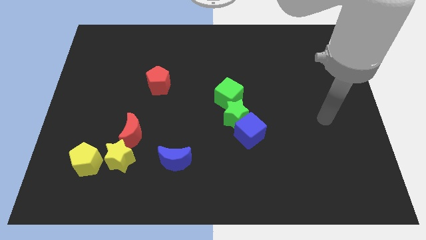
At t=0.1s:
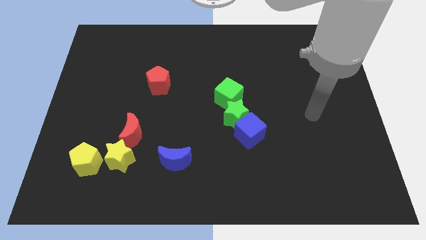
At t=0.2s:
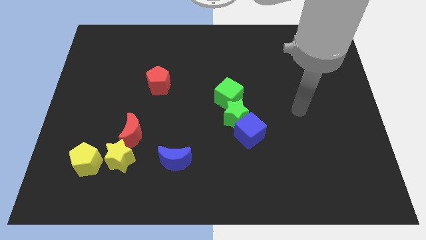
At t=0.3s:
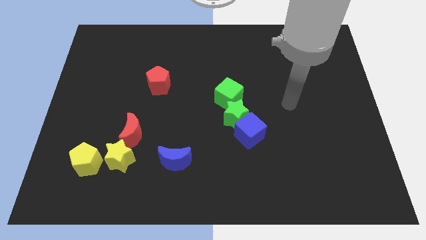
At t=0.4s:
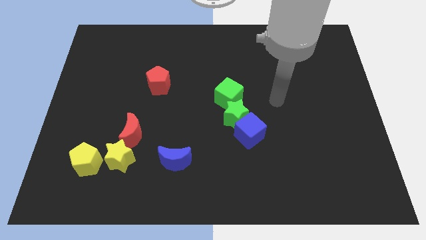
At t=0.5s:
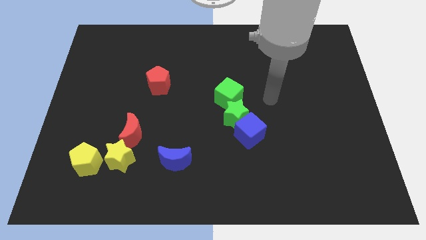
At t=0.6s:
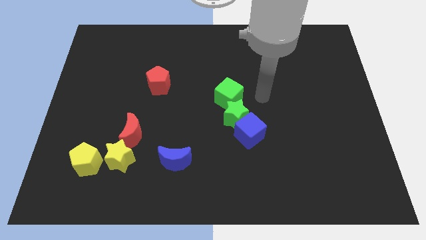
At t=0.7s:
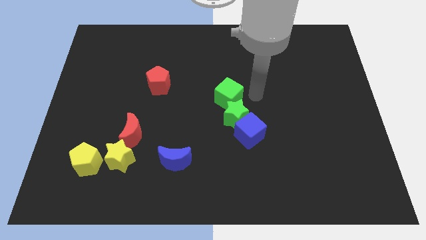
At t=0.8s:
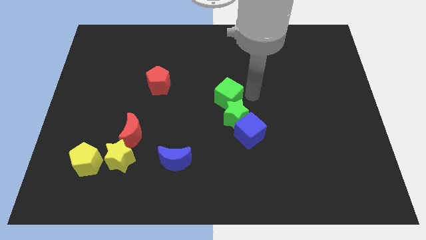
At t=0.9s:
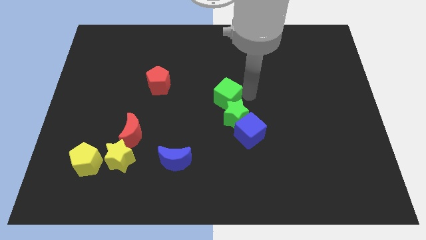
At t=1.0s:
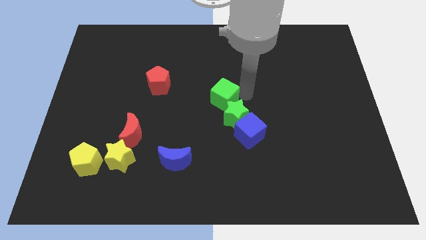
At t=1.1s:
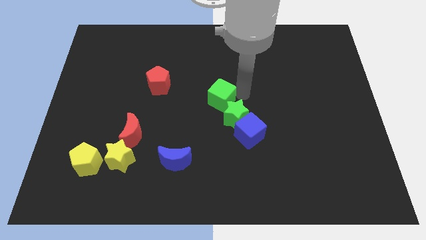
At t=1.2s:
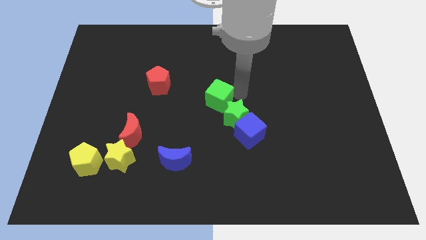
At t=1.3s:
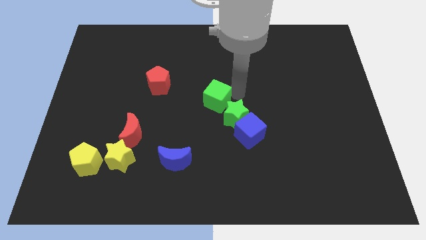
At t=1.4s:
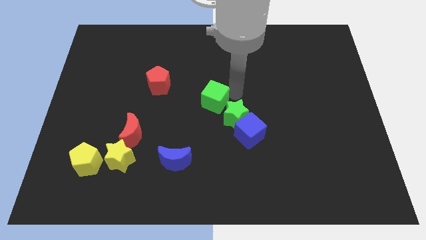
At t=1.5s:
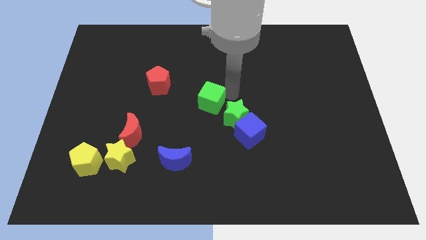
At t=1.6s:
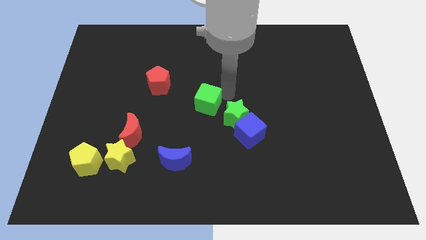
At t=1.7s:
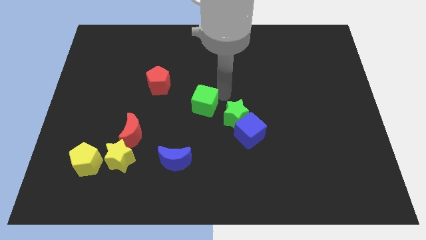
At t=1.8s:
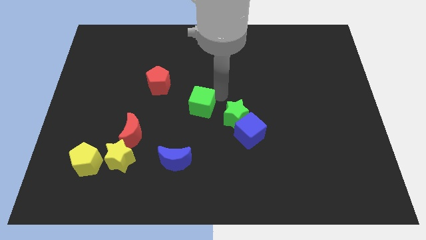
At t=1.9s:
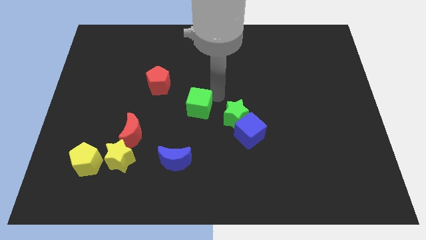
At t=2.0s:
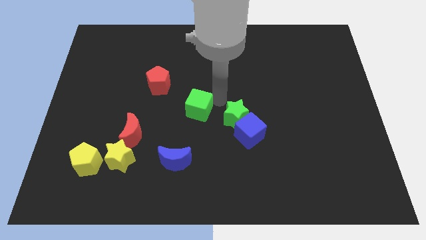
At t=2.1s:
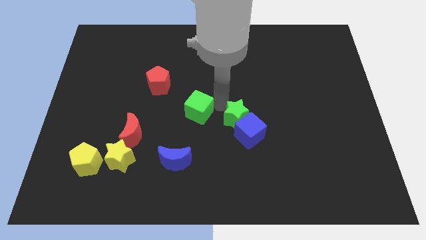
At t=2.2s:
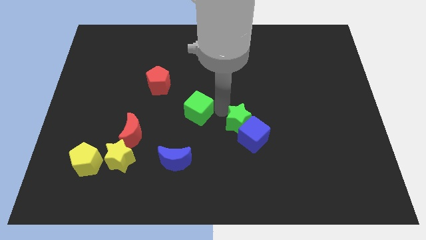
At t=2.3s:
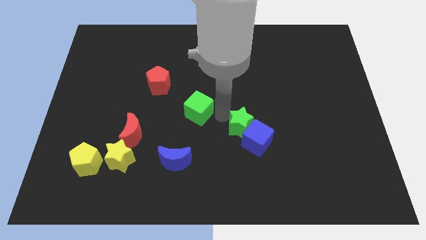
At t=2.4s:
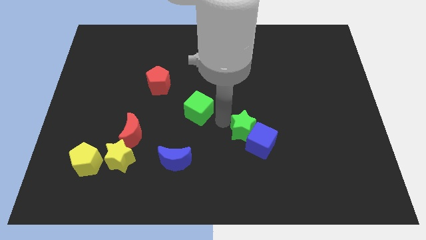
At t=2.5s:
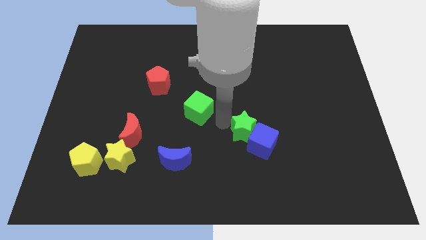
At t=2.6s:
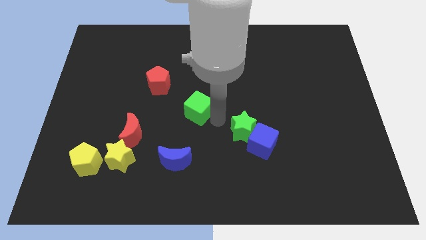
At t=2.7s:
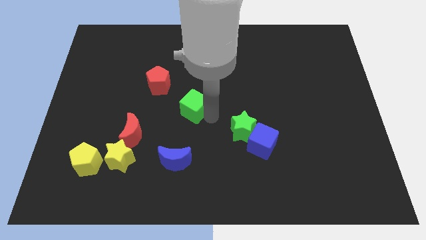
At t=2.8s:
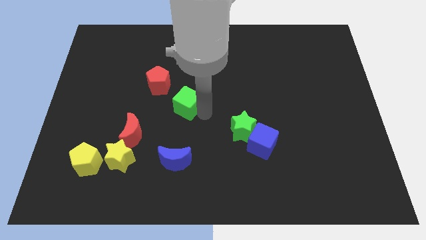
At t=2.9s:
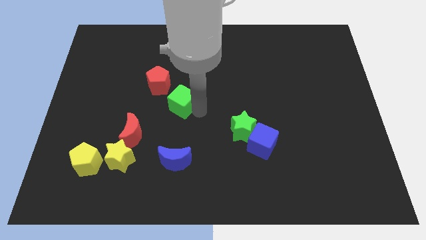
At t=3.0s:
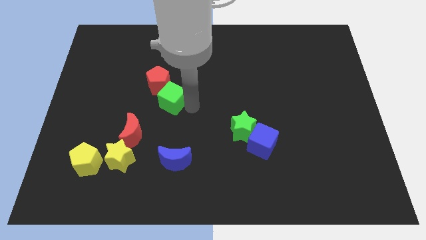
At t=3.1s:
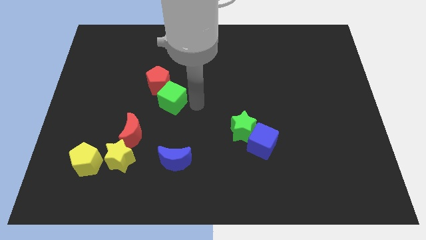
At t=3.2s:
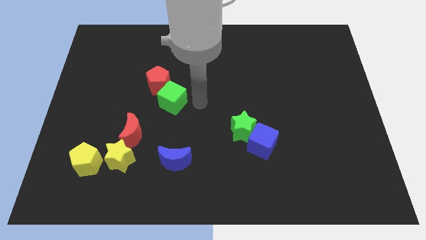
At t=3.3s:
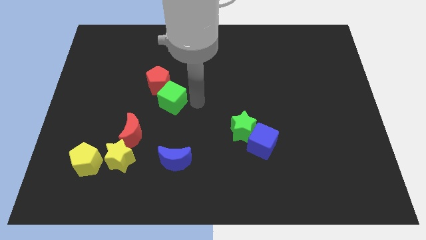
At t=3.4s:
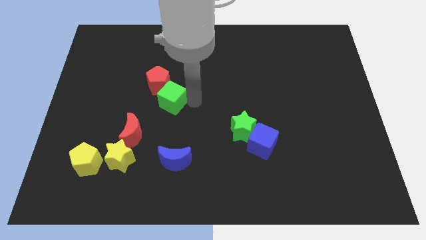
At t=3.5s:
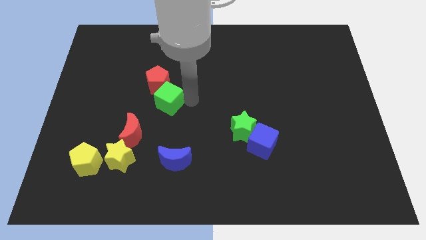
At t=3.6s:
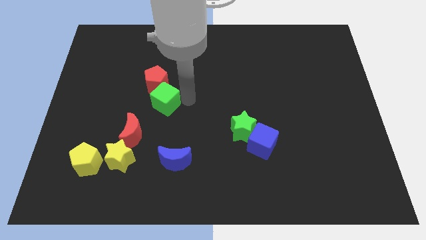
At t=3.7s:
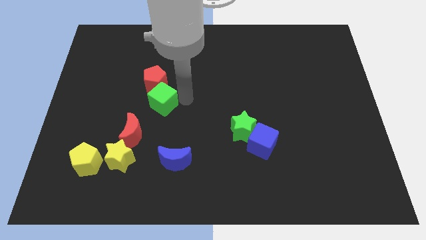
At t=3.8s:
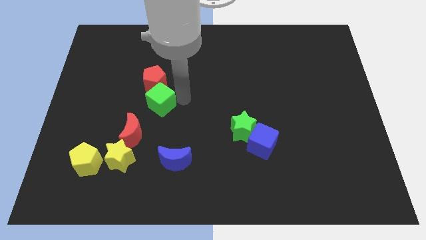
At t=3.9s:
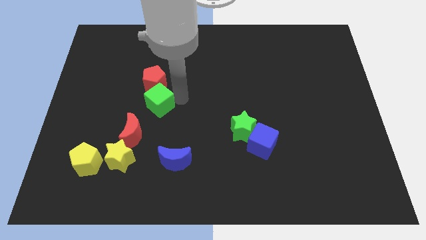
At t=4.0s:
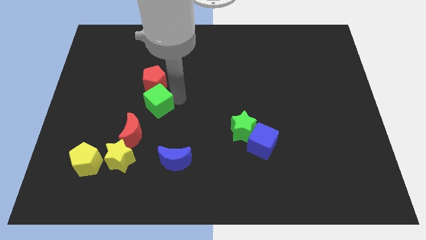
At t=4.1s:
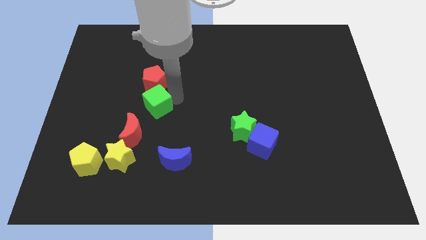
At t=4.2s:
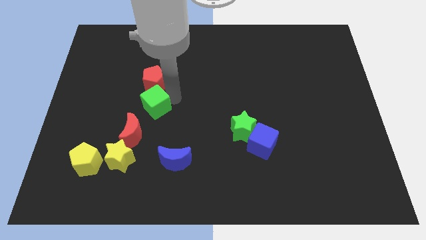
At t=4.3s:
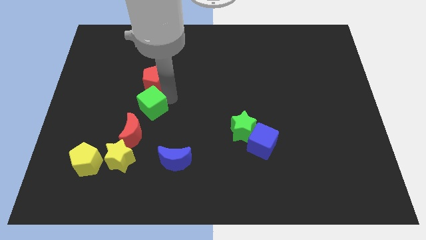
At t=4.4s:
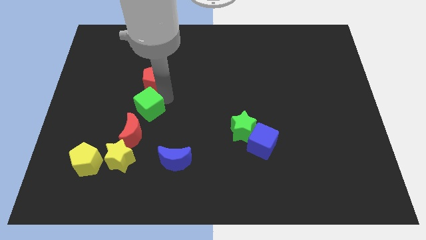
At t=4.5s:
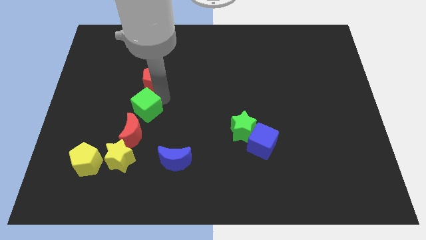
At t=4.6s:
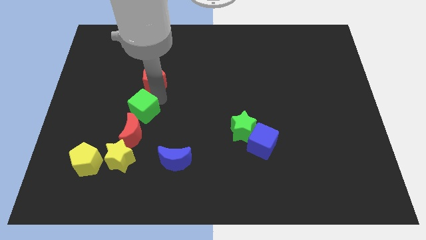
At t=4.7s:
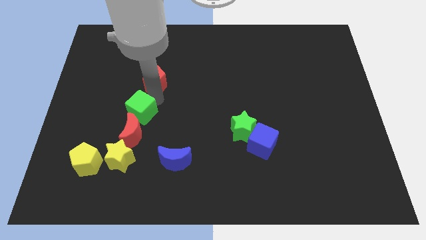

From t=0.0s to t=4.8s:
move the green cube to the left

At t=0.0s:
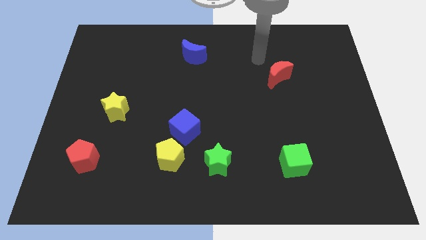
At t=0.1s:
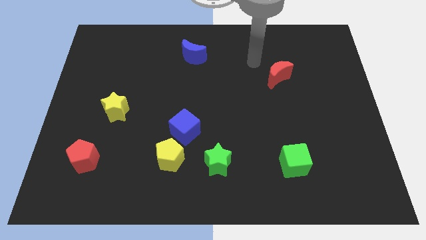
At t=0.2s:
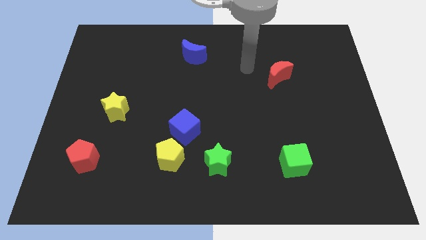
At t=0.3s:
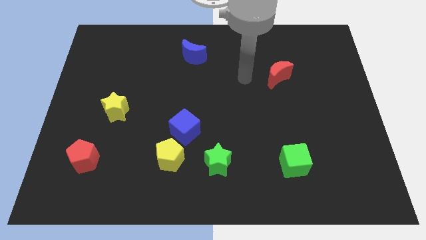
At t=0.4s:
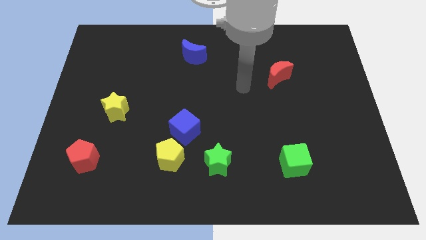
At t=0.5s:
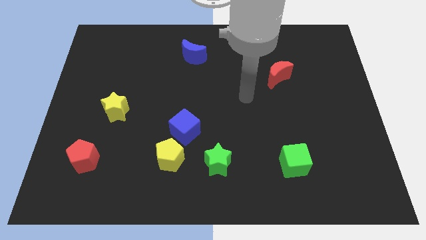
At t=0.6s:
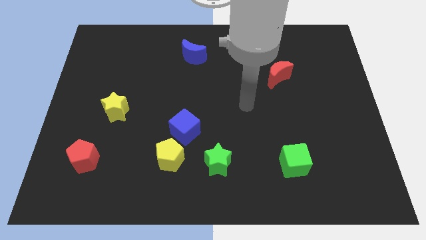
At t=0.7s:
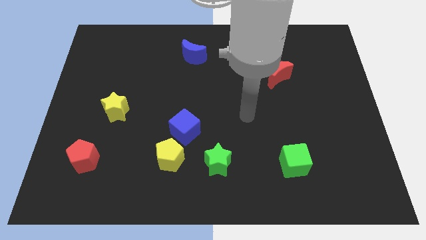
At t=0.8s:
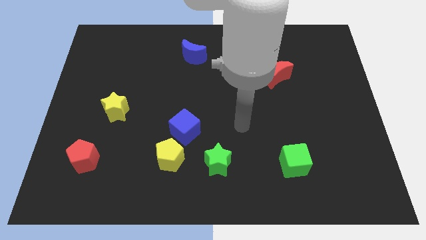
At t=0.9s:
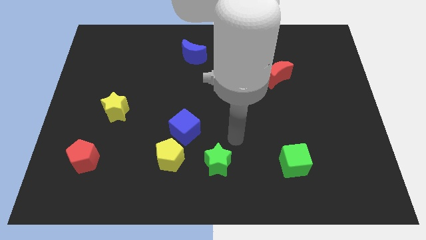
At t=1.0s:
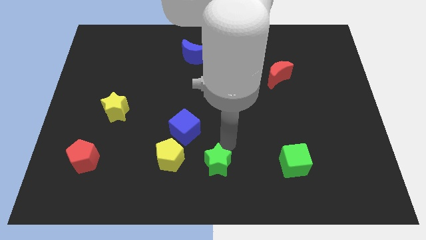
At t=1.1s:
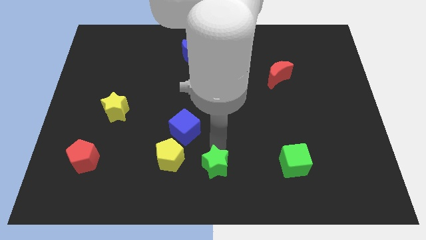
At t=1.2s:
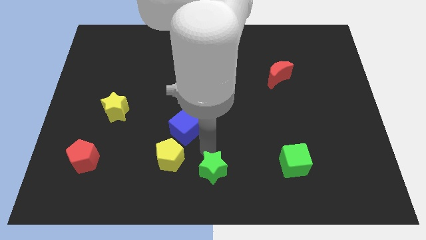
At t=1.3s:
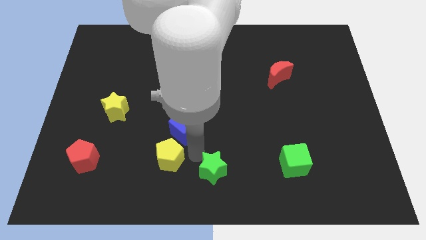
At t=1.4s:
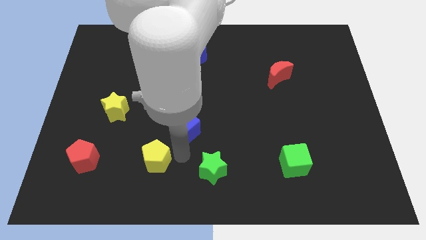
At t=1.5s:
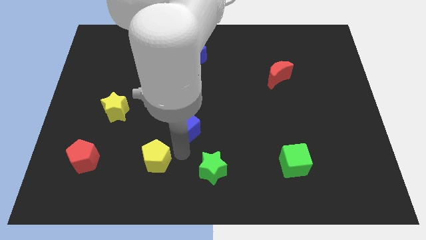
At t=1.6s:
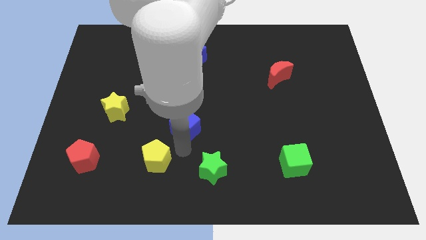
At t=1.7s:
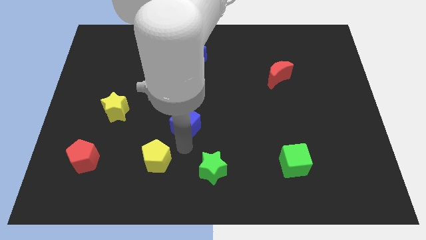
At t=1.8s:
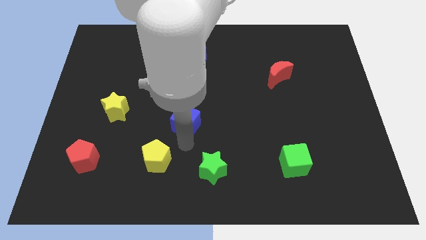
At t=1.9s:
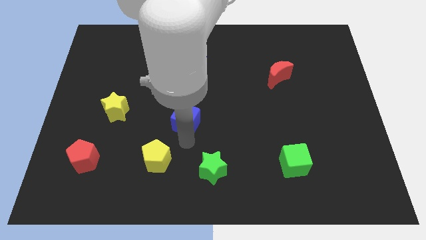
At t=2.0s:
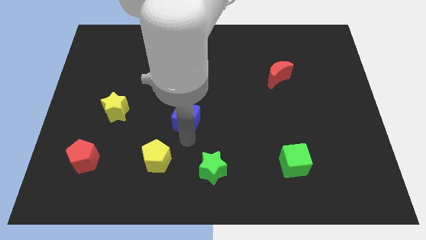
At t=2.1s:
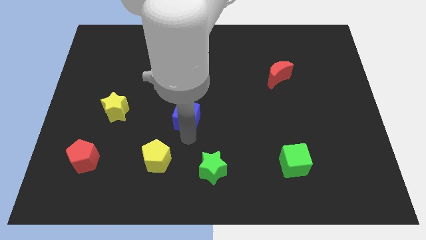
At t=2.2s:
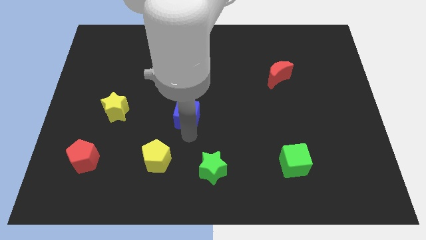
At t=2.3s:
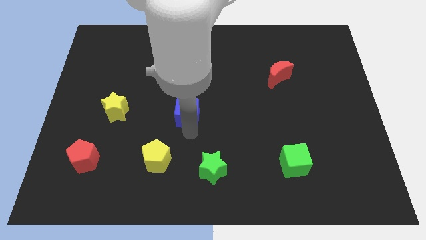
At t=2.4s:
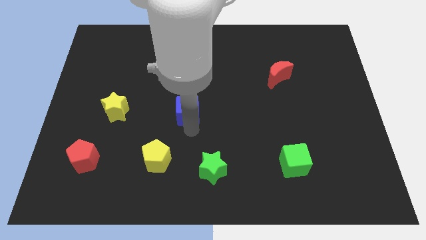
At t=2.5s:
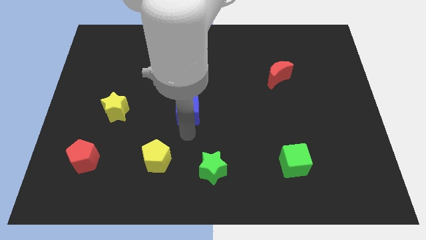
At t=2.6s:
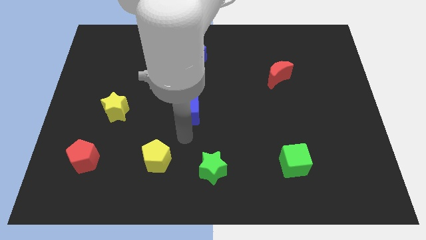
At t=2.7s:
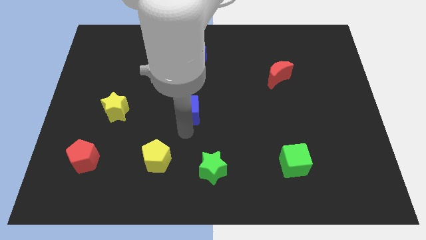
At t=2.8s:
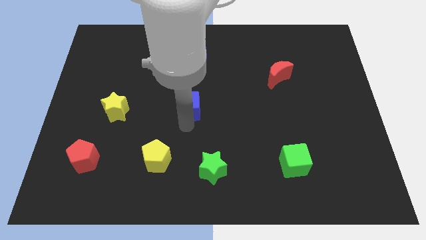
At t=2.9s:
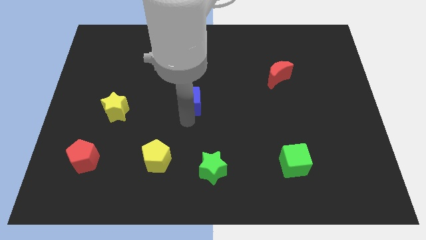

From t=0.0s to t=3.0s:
push the blue cube a little upwards

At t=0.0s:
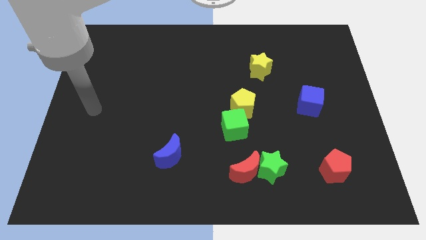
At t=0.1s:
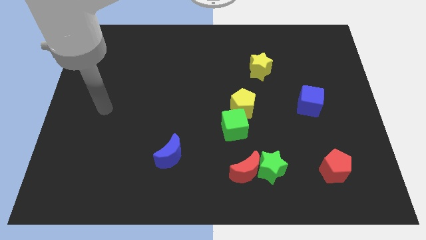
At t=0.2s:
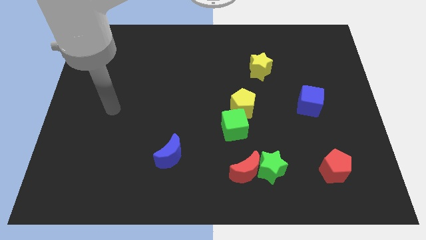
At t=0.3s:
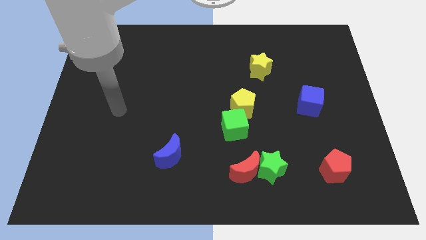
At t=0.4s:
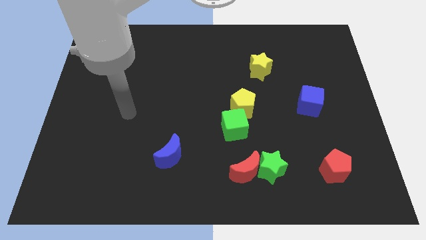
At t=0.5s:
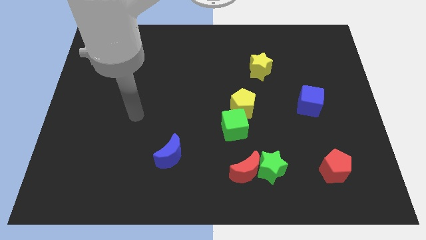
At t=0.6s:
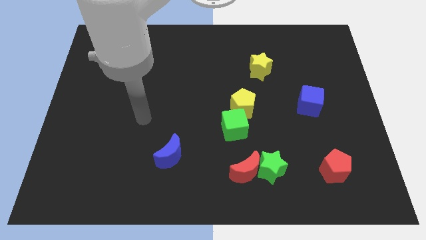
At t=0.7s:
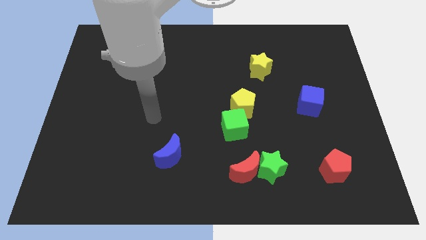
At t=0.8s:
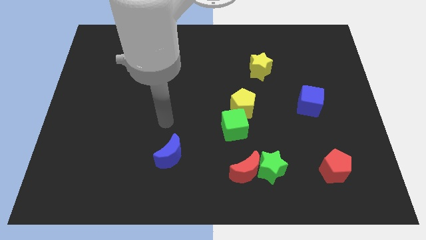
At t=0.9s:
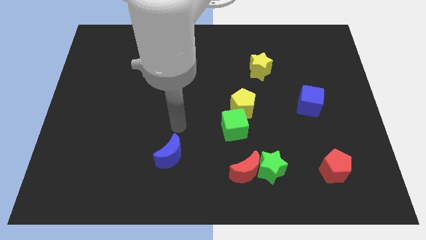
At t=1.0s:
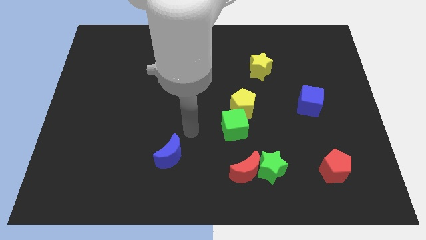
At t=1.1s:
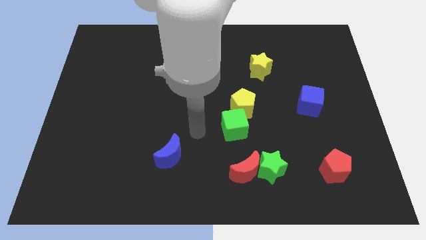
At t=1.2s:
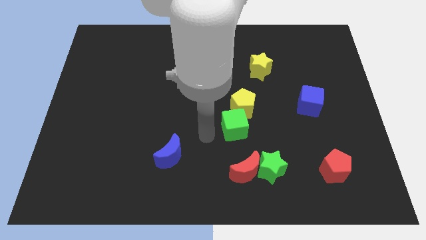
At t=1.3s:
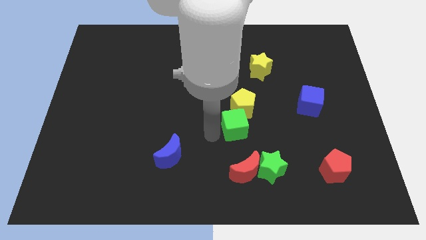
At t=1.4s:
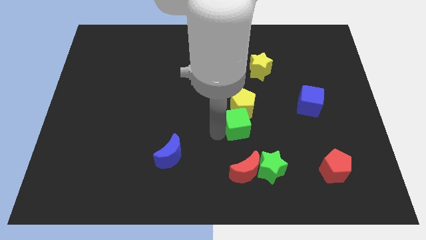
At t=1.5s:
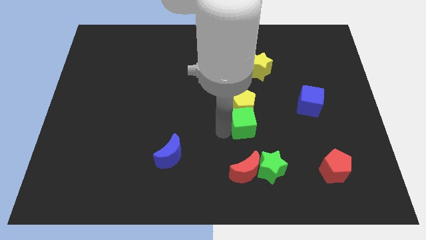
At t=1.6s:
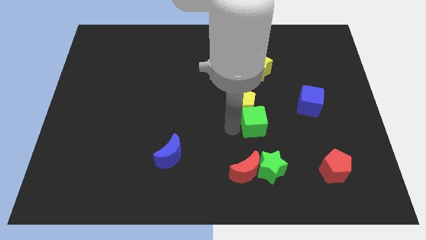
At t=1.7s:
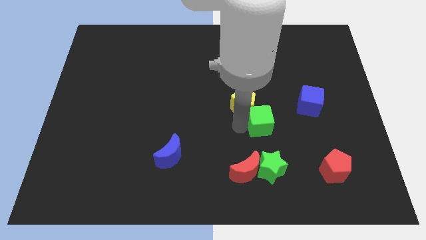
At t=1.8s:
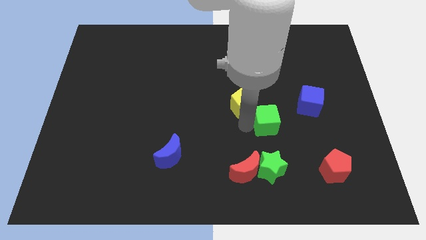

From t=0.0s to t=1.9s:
slightly move the green cube right
